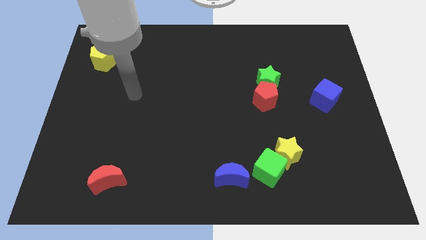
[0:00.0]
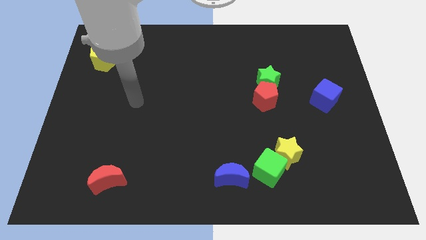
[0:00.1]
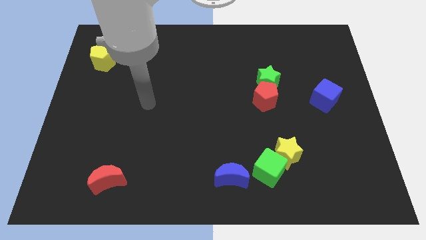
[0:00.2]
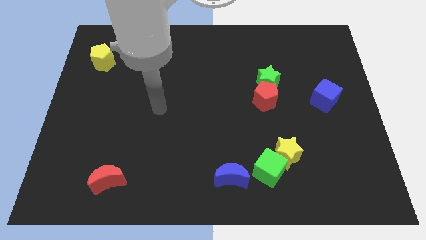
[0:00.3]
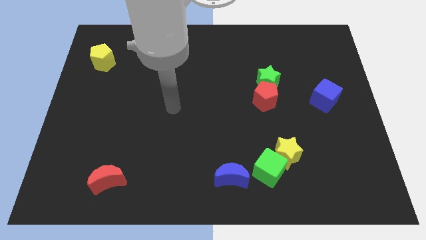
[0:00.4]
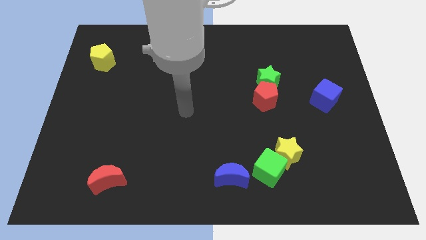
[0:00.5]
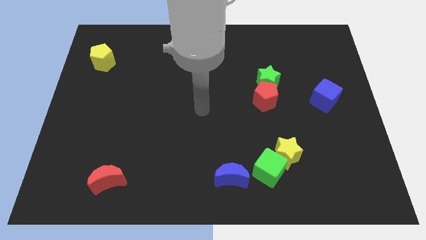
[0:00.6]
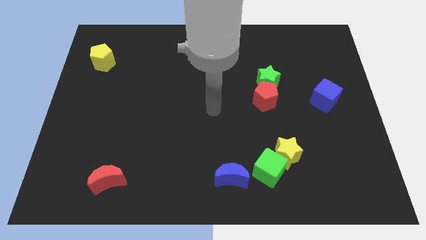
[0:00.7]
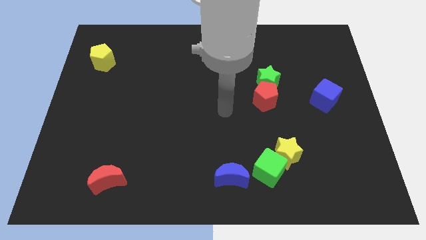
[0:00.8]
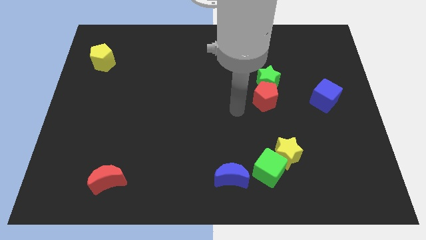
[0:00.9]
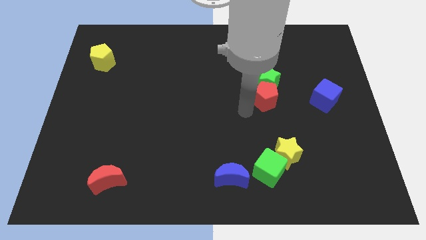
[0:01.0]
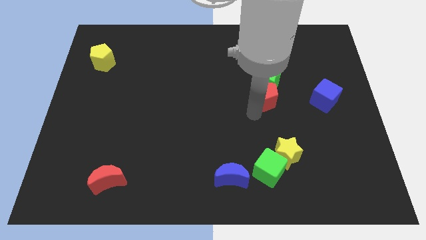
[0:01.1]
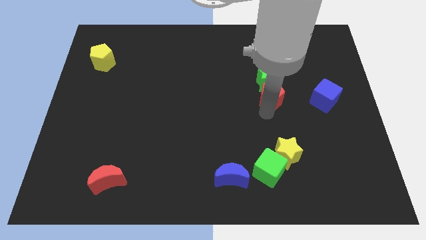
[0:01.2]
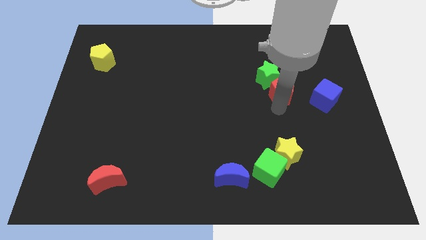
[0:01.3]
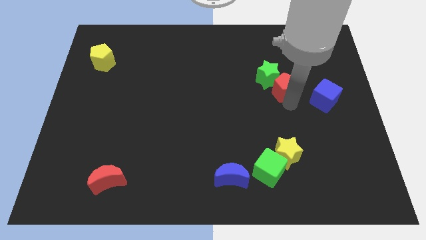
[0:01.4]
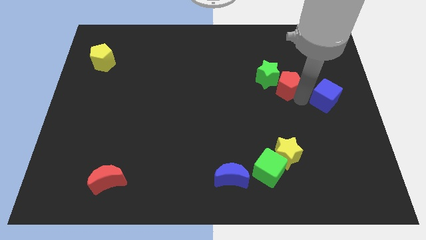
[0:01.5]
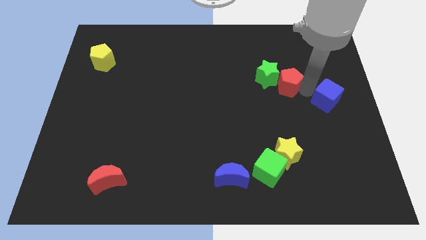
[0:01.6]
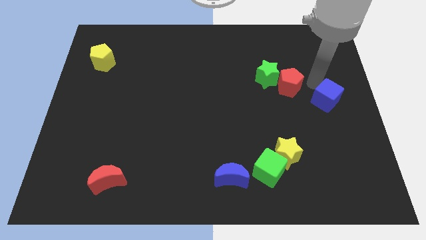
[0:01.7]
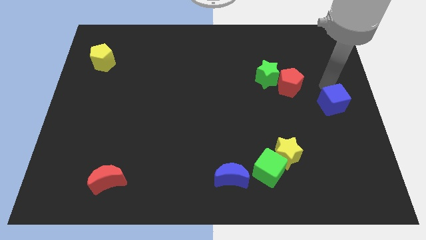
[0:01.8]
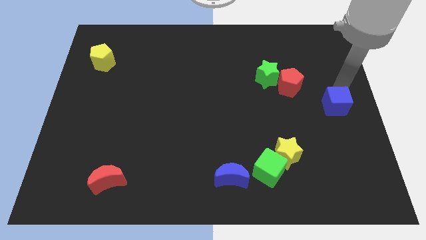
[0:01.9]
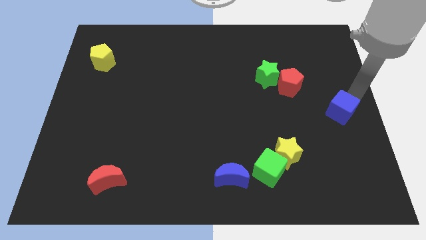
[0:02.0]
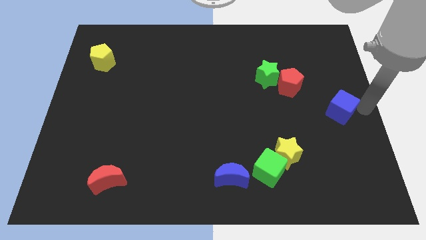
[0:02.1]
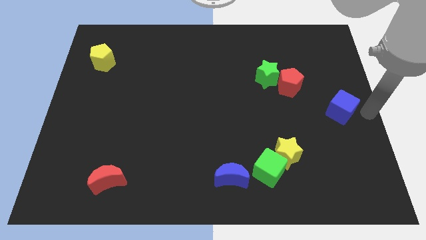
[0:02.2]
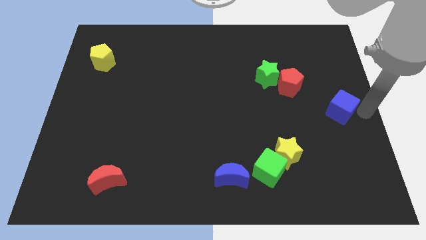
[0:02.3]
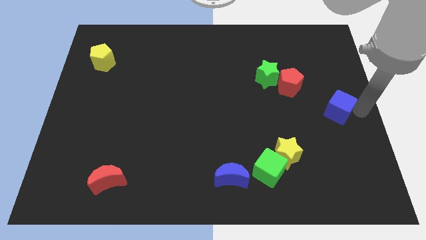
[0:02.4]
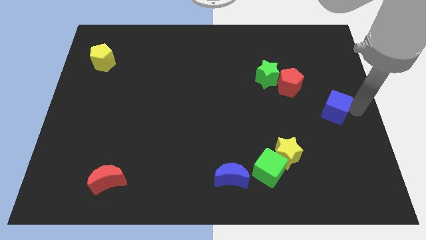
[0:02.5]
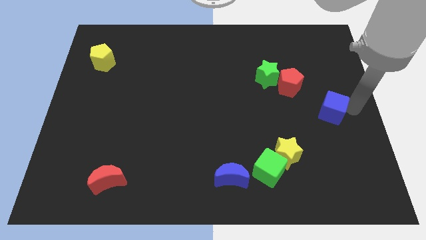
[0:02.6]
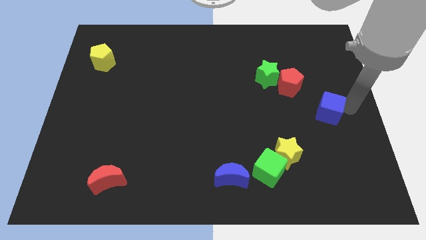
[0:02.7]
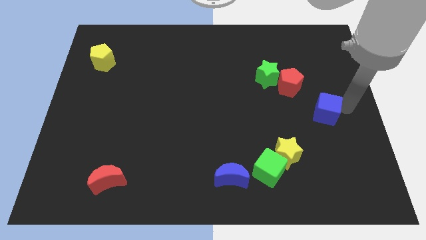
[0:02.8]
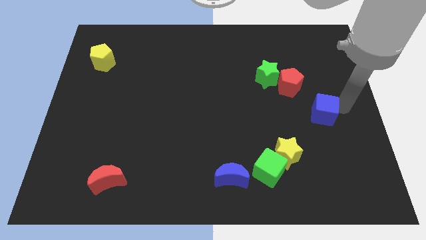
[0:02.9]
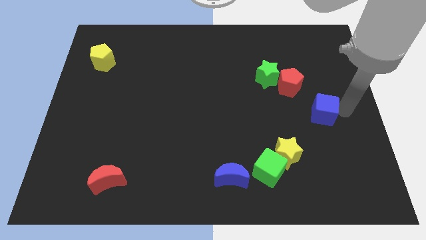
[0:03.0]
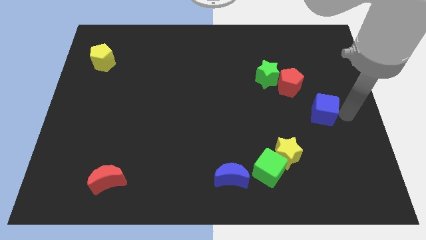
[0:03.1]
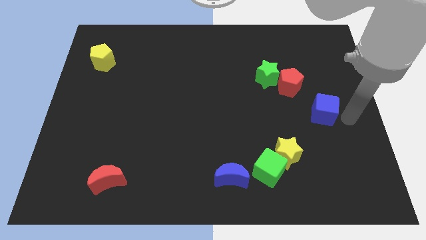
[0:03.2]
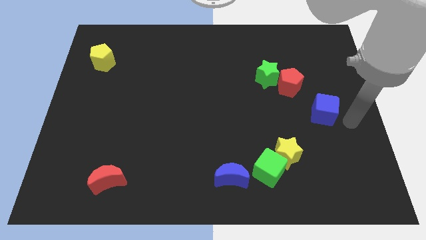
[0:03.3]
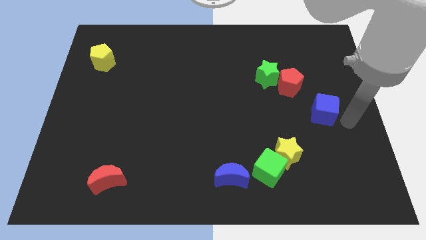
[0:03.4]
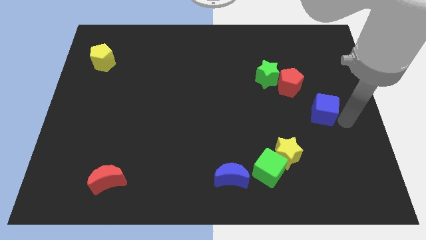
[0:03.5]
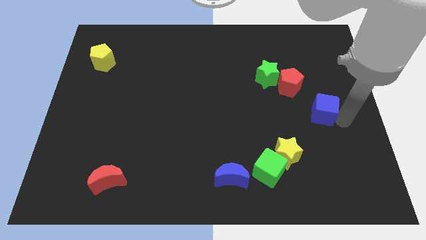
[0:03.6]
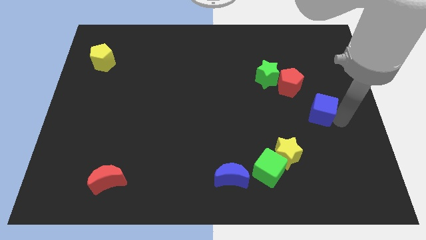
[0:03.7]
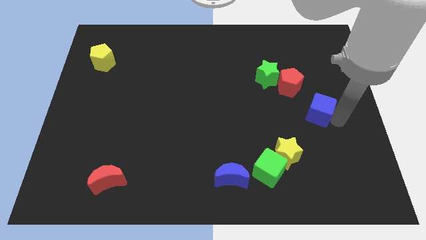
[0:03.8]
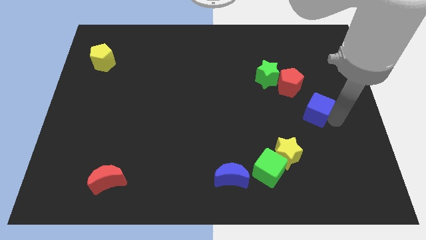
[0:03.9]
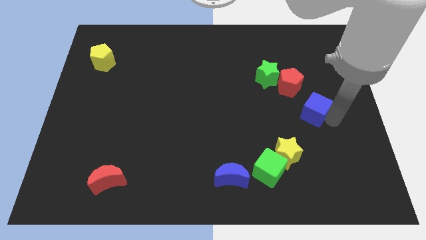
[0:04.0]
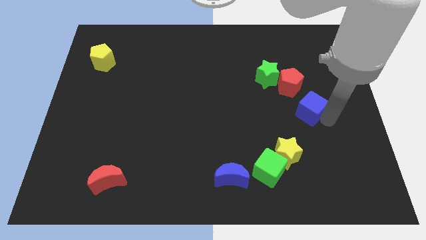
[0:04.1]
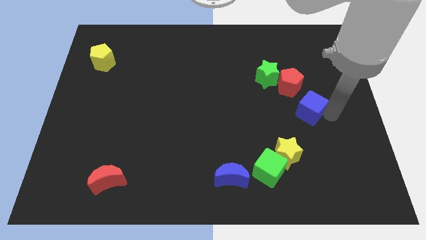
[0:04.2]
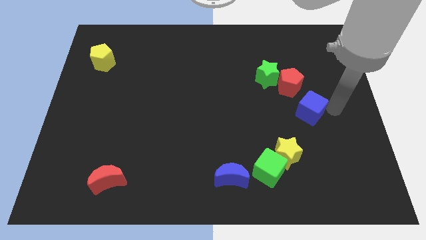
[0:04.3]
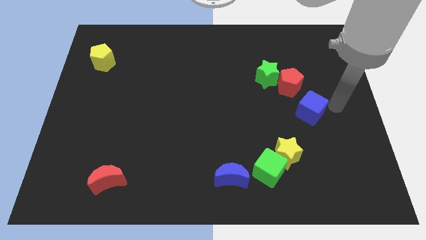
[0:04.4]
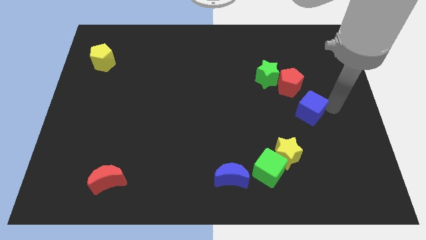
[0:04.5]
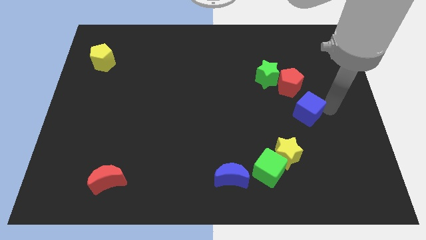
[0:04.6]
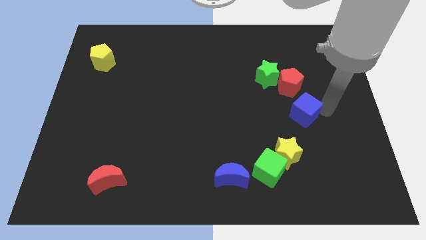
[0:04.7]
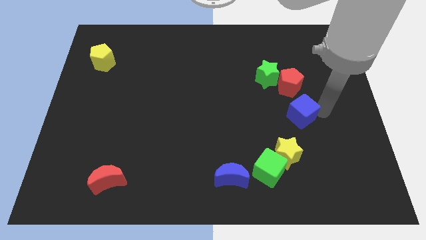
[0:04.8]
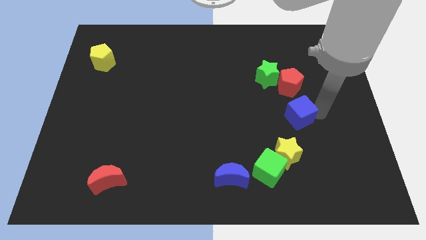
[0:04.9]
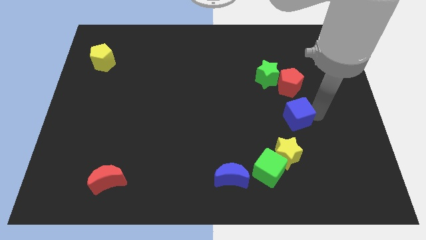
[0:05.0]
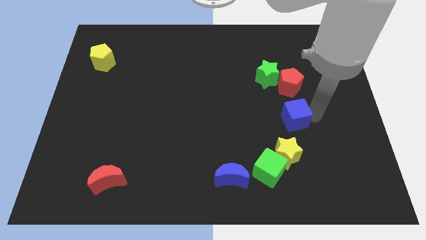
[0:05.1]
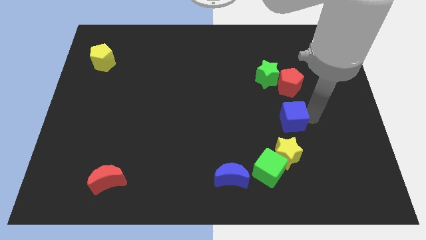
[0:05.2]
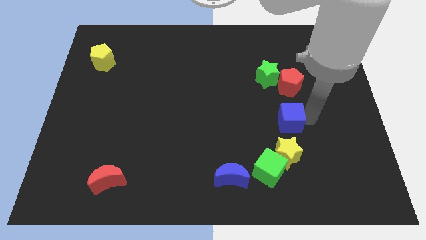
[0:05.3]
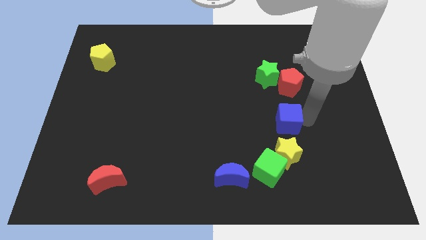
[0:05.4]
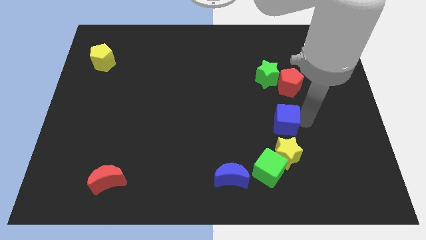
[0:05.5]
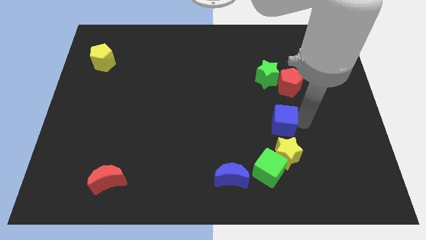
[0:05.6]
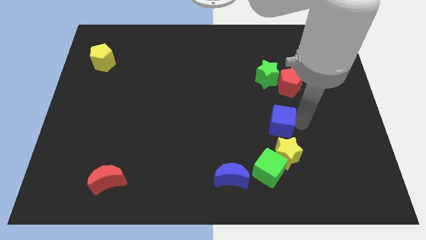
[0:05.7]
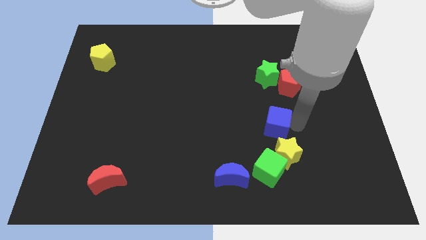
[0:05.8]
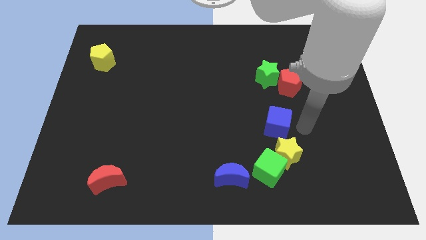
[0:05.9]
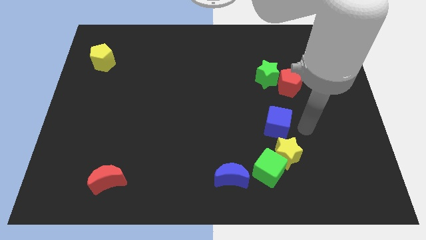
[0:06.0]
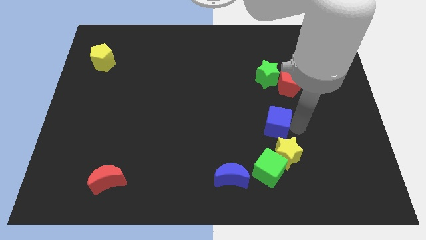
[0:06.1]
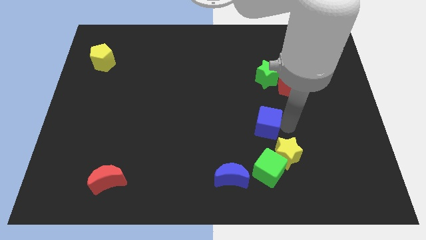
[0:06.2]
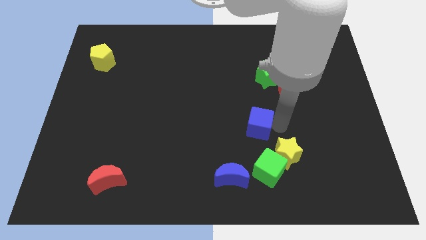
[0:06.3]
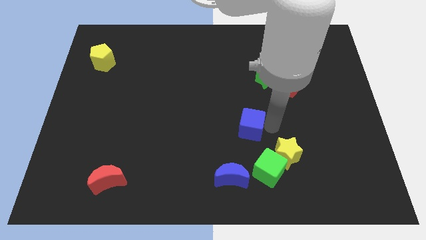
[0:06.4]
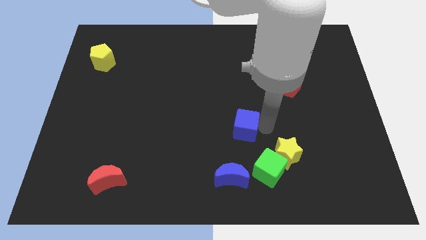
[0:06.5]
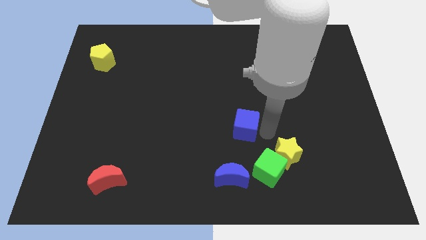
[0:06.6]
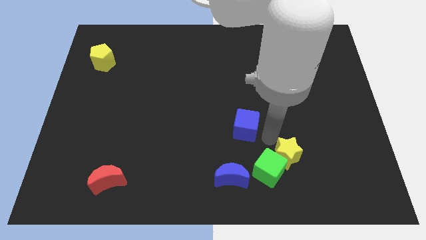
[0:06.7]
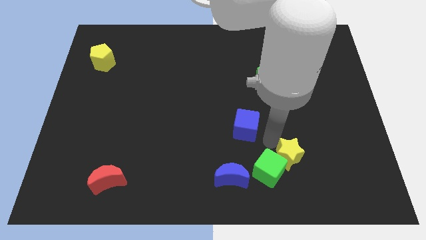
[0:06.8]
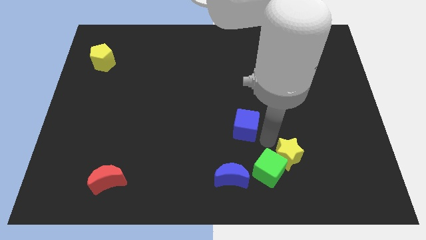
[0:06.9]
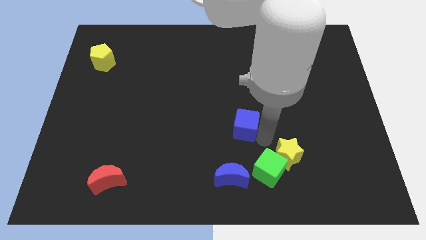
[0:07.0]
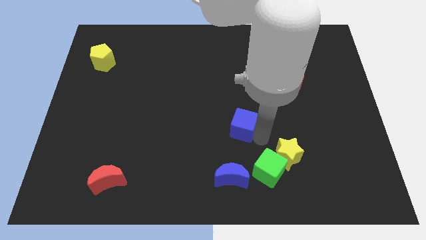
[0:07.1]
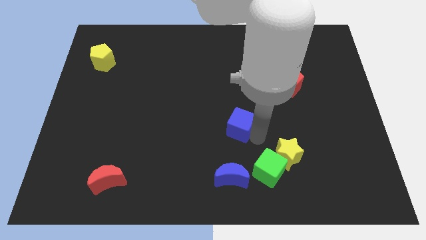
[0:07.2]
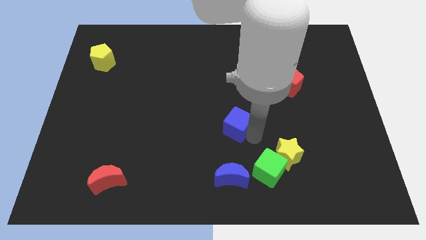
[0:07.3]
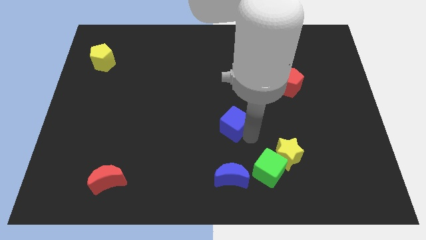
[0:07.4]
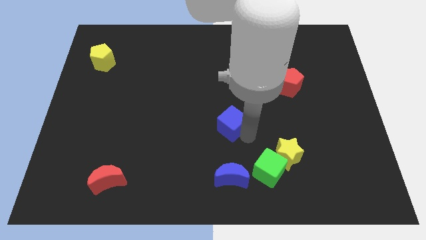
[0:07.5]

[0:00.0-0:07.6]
slide the blue cube to the left
